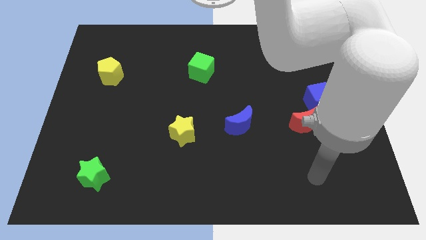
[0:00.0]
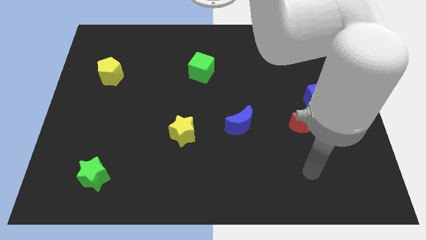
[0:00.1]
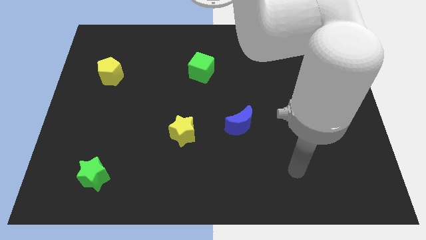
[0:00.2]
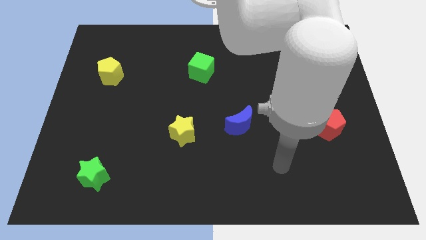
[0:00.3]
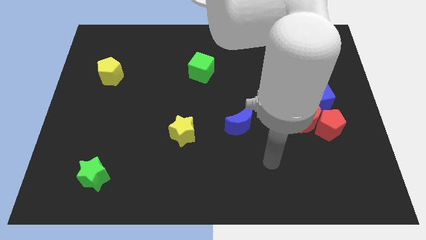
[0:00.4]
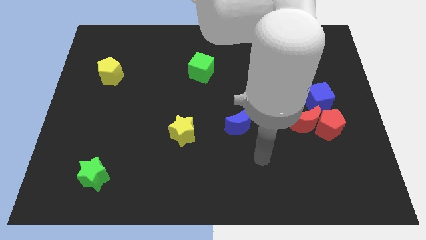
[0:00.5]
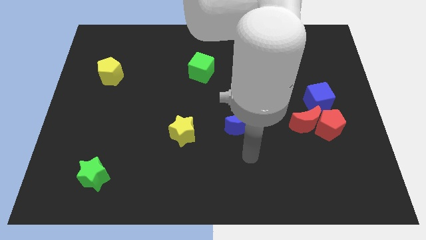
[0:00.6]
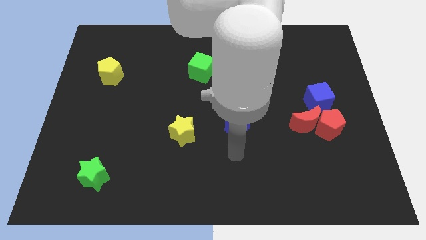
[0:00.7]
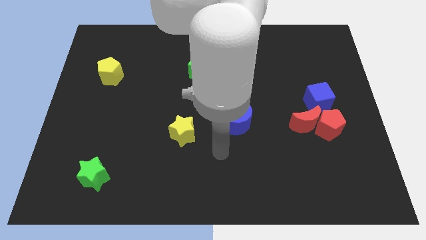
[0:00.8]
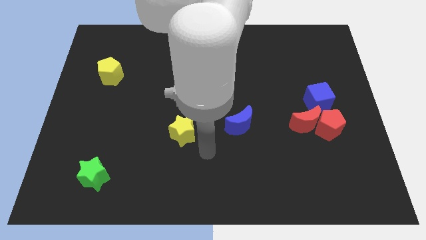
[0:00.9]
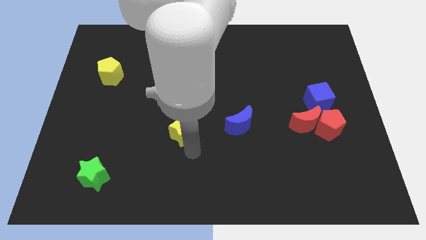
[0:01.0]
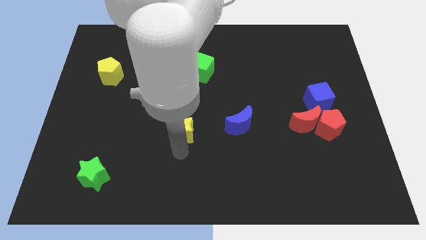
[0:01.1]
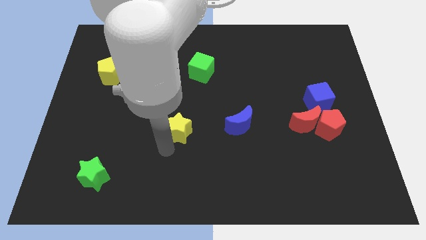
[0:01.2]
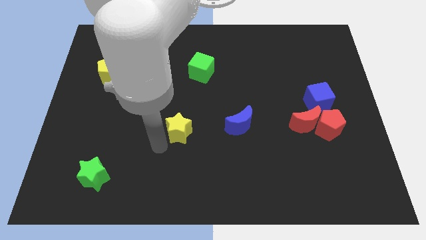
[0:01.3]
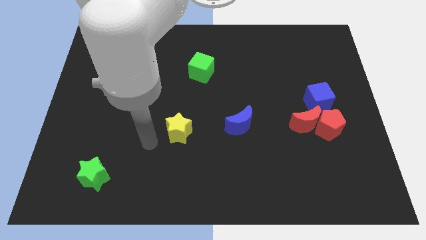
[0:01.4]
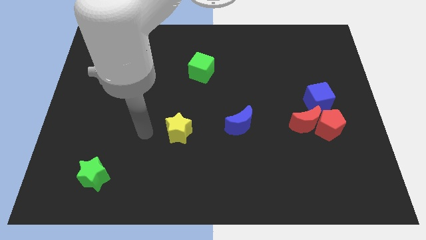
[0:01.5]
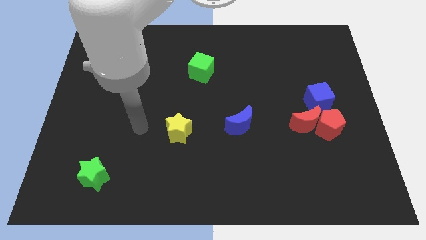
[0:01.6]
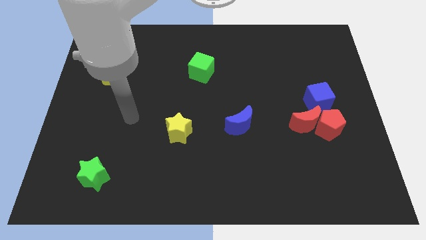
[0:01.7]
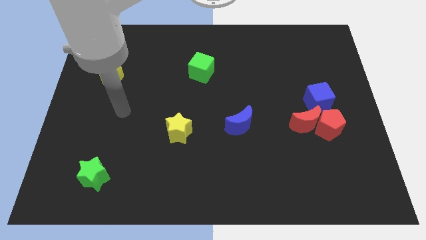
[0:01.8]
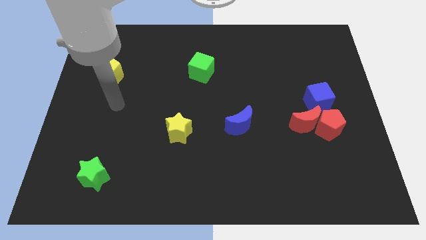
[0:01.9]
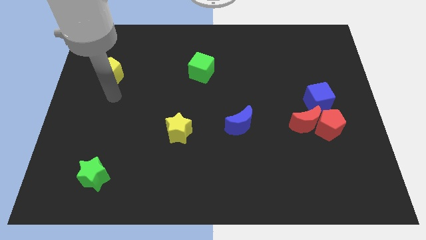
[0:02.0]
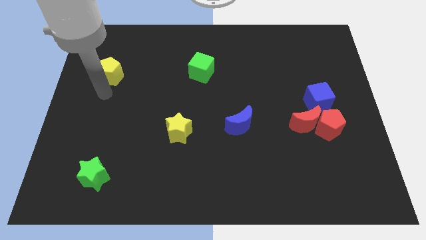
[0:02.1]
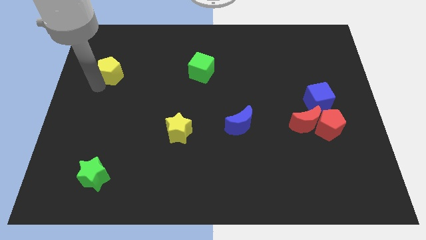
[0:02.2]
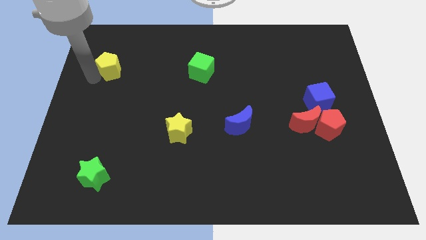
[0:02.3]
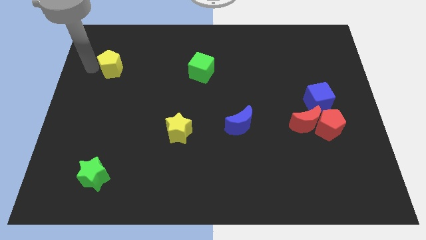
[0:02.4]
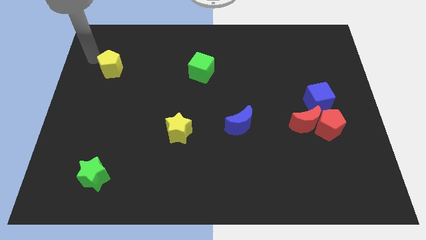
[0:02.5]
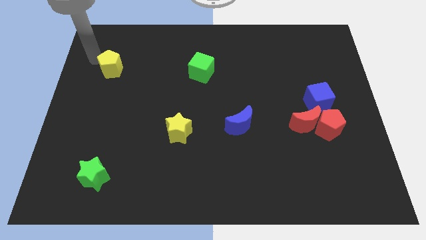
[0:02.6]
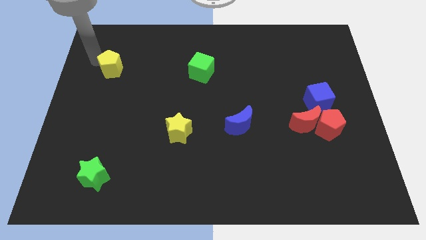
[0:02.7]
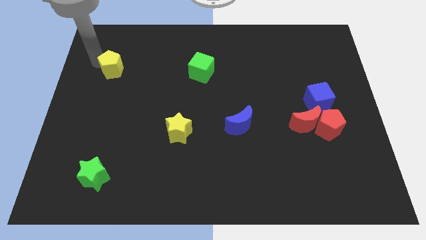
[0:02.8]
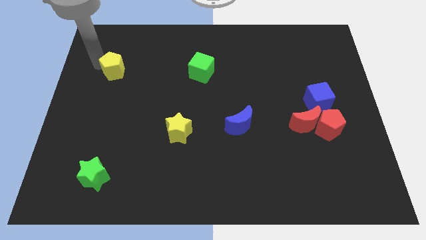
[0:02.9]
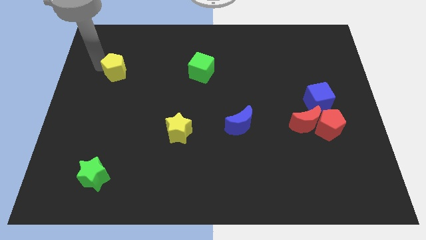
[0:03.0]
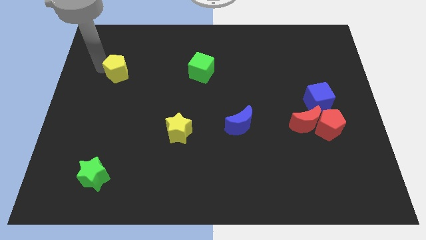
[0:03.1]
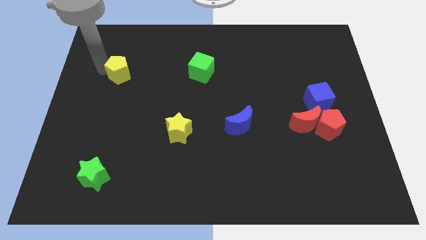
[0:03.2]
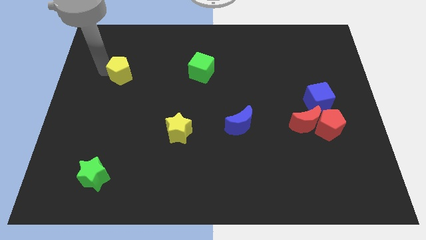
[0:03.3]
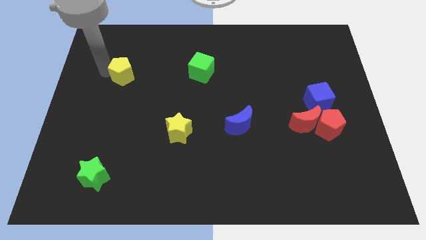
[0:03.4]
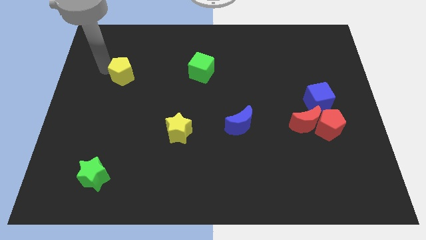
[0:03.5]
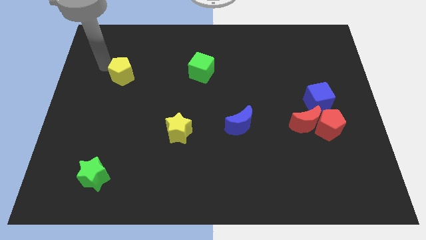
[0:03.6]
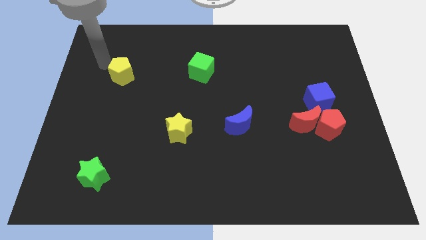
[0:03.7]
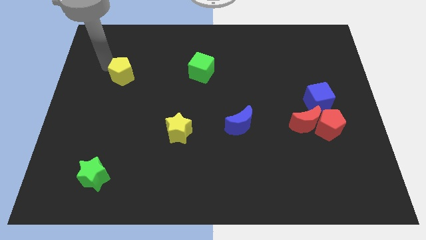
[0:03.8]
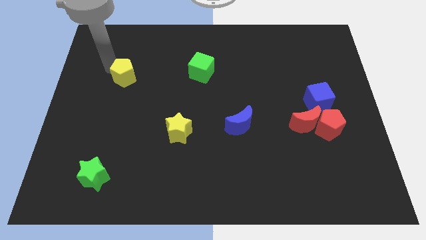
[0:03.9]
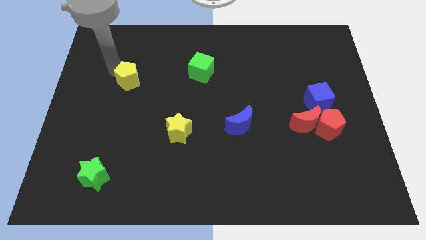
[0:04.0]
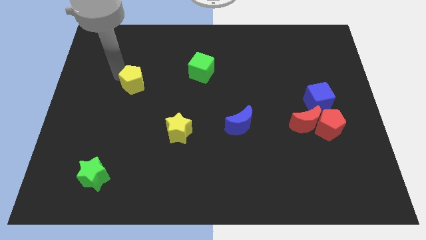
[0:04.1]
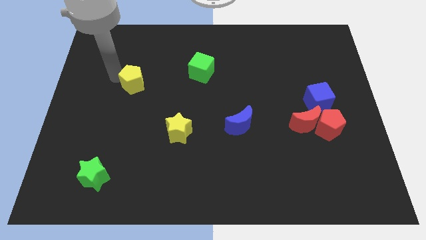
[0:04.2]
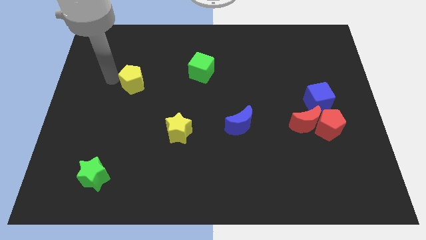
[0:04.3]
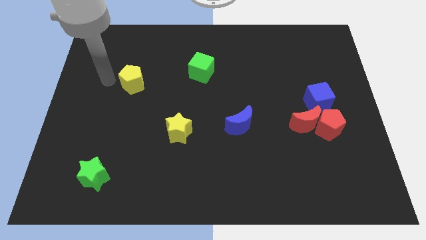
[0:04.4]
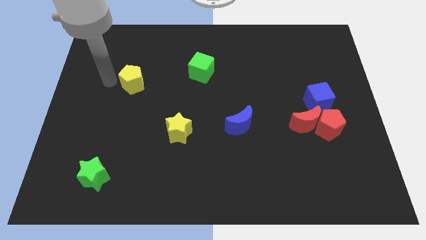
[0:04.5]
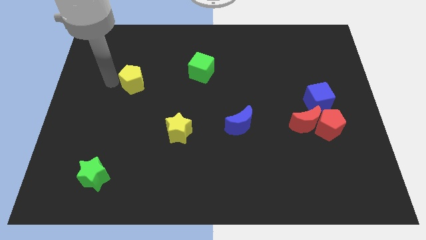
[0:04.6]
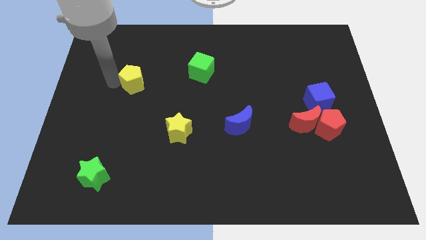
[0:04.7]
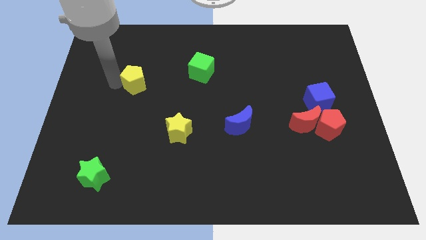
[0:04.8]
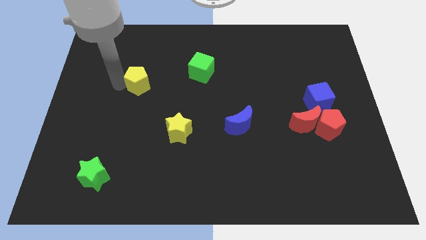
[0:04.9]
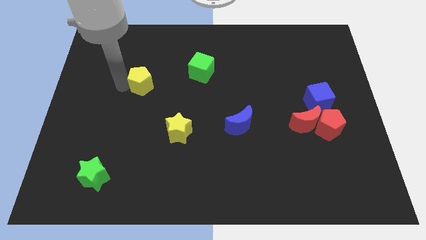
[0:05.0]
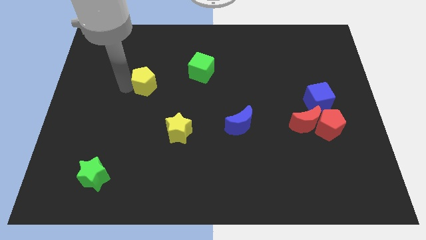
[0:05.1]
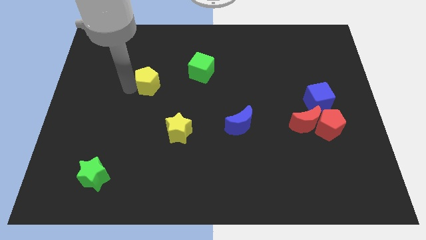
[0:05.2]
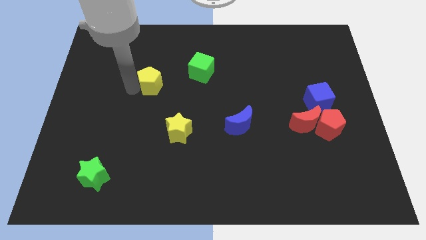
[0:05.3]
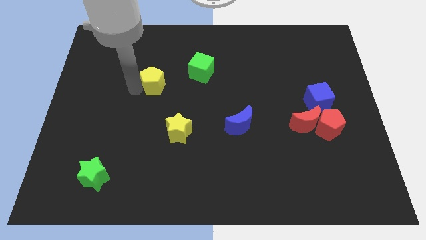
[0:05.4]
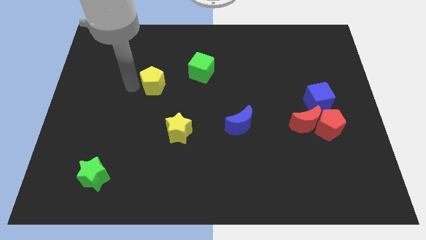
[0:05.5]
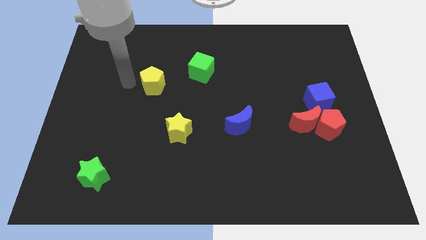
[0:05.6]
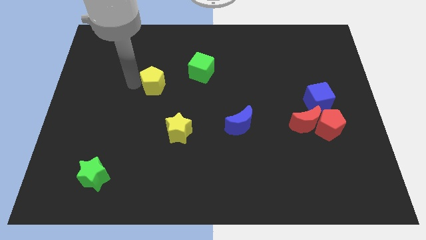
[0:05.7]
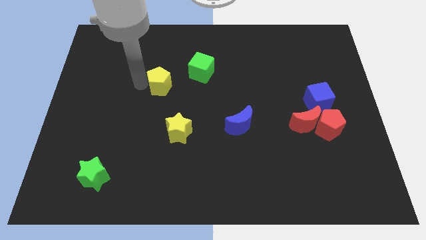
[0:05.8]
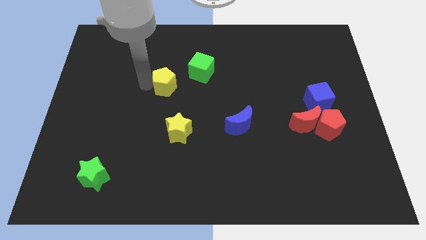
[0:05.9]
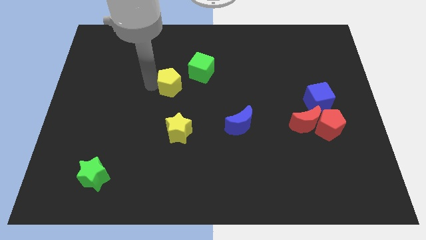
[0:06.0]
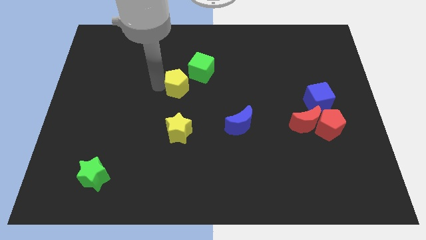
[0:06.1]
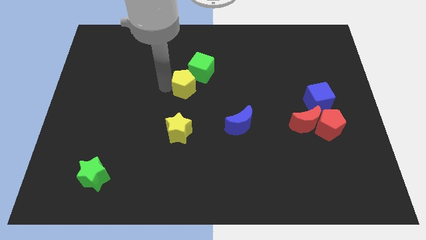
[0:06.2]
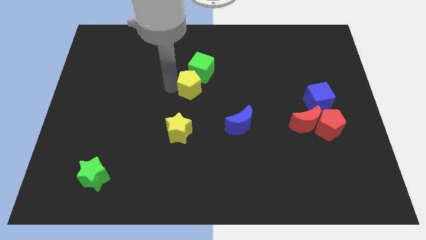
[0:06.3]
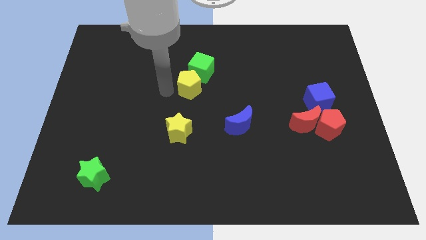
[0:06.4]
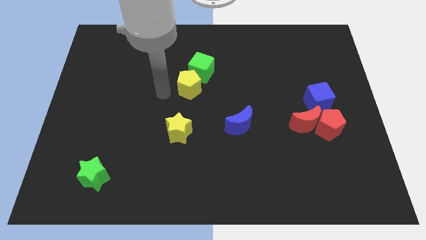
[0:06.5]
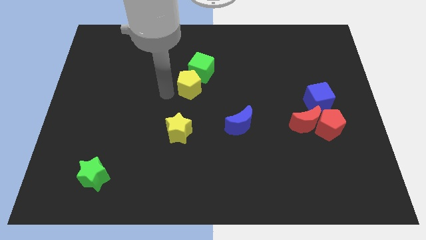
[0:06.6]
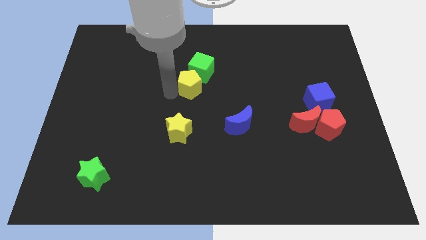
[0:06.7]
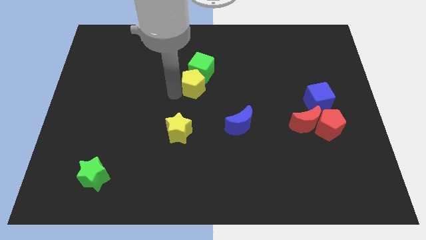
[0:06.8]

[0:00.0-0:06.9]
slide the yellow pentagon to the right

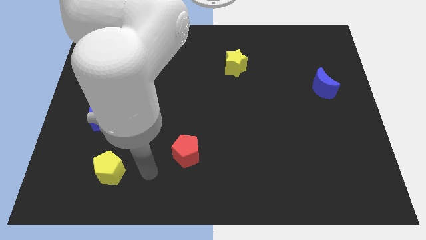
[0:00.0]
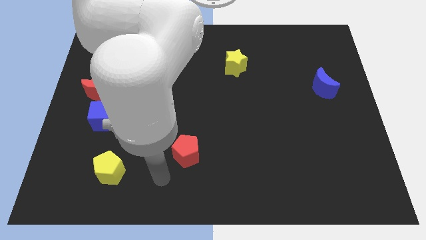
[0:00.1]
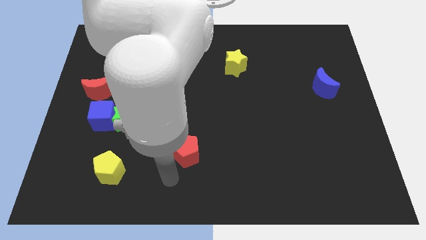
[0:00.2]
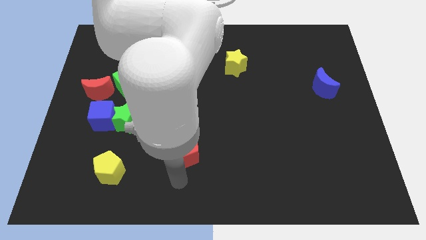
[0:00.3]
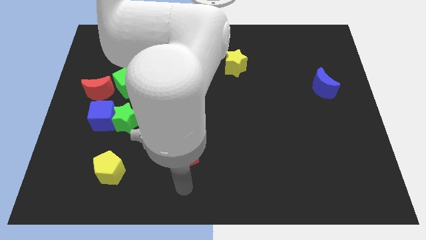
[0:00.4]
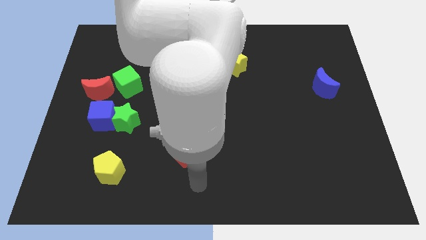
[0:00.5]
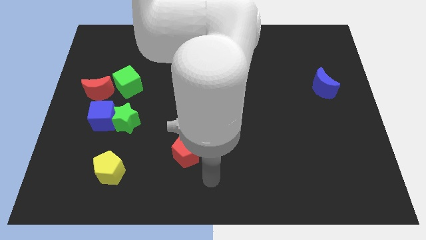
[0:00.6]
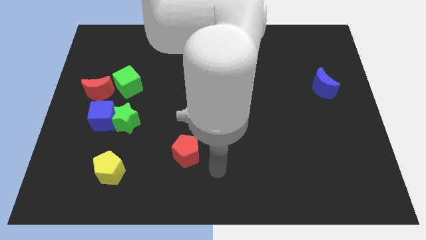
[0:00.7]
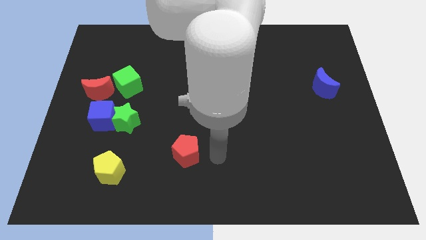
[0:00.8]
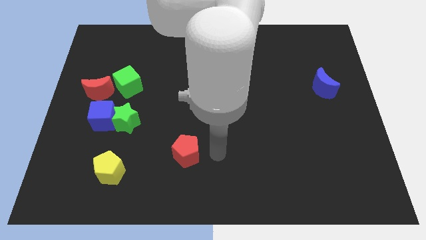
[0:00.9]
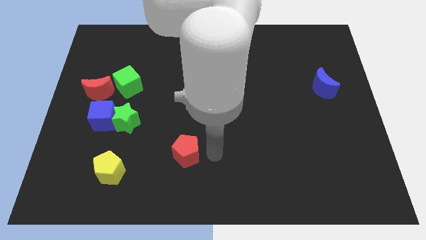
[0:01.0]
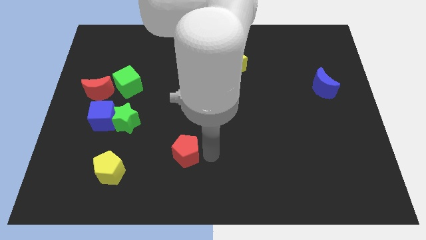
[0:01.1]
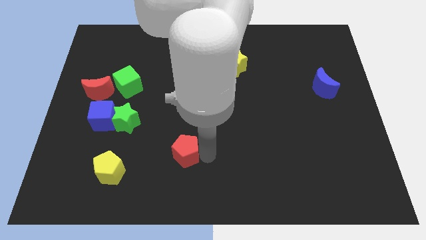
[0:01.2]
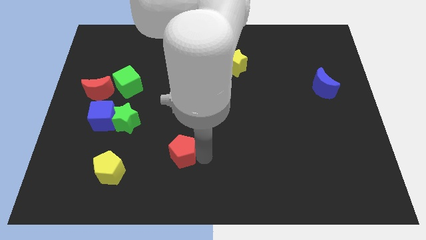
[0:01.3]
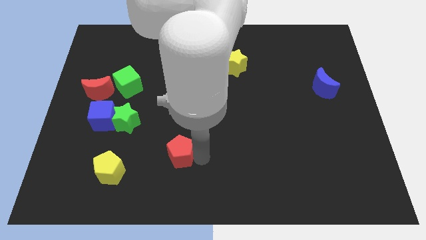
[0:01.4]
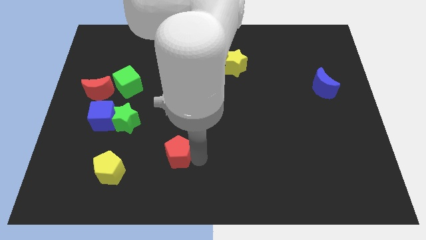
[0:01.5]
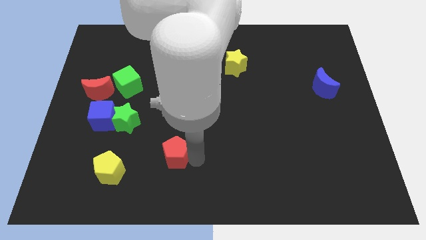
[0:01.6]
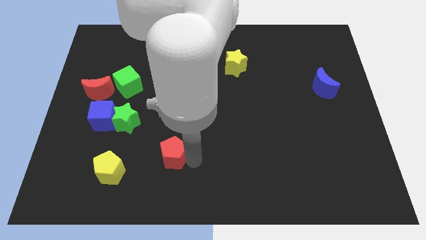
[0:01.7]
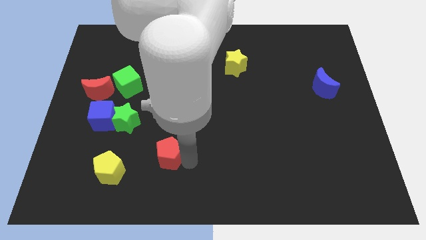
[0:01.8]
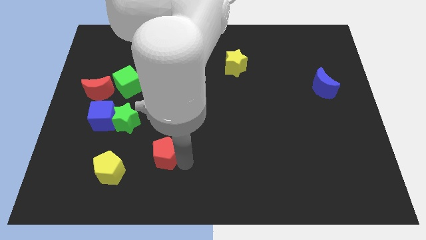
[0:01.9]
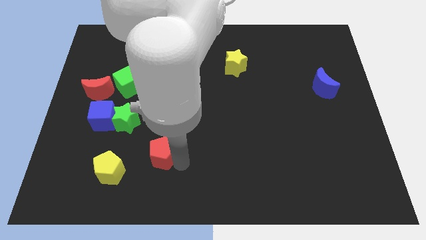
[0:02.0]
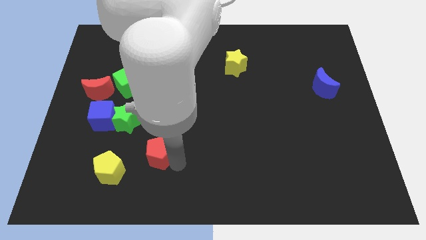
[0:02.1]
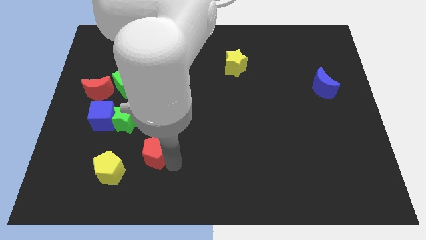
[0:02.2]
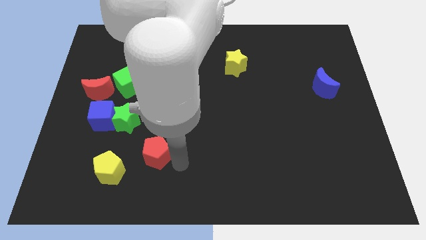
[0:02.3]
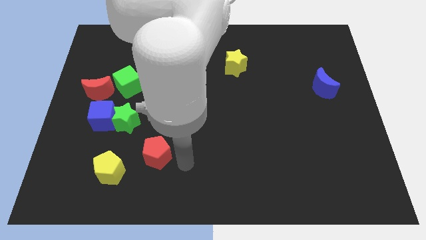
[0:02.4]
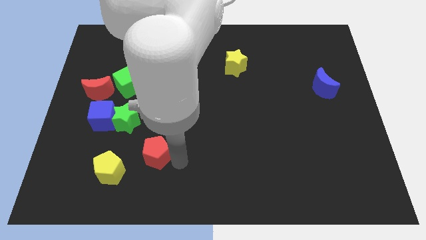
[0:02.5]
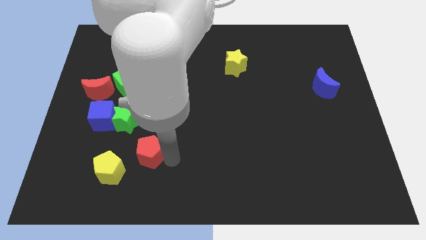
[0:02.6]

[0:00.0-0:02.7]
slightly push the red pentagon left
